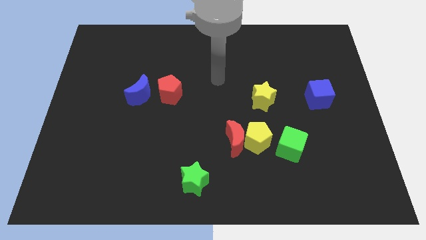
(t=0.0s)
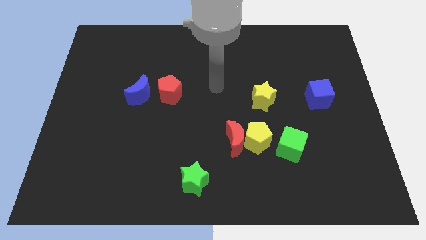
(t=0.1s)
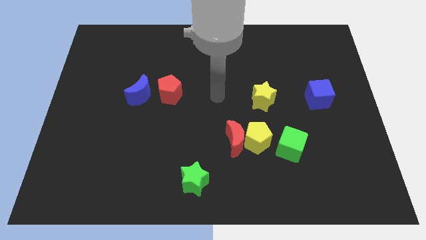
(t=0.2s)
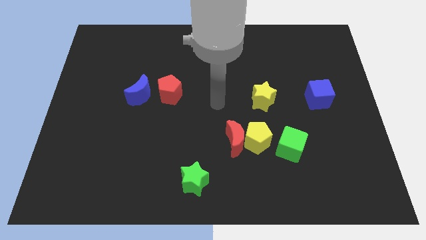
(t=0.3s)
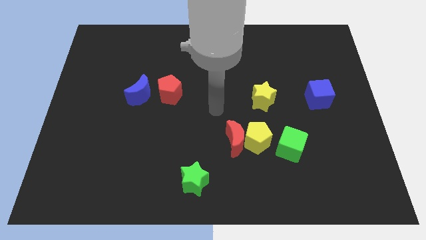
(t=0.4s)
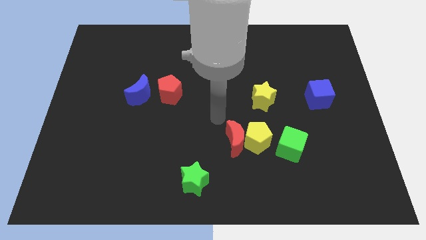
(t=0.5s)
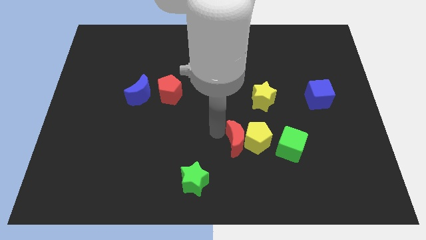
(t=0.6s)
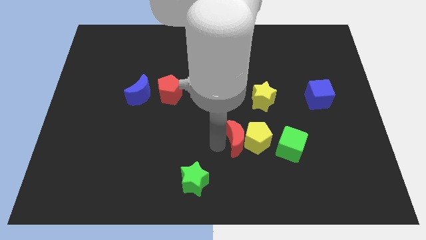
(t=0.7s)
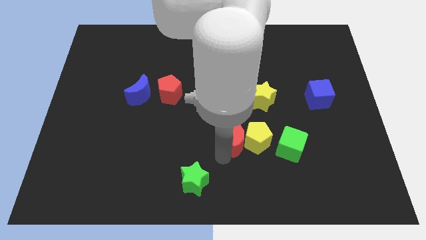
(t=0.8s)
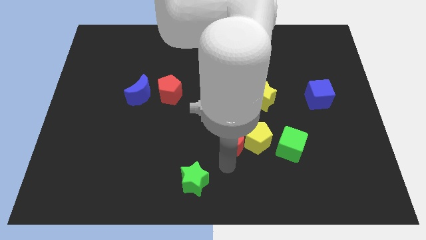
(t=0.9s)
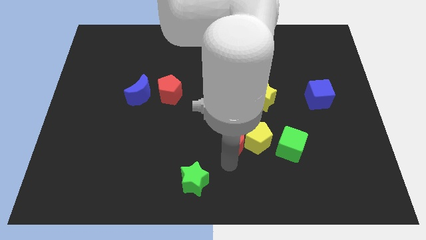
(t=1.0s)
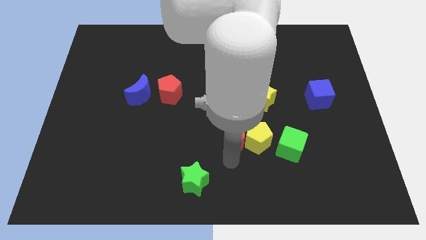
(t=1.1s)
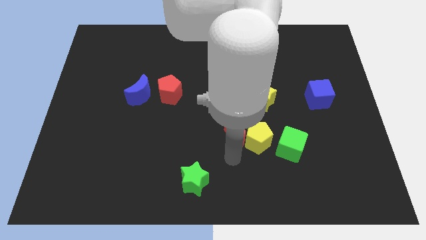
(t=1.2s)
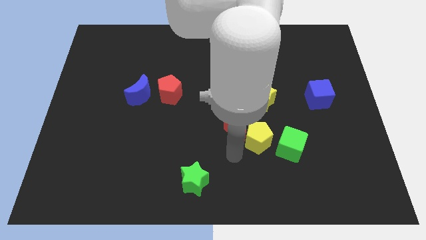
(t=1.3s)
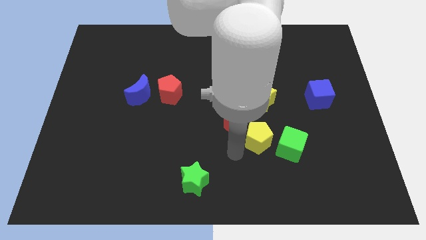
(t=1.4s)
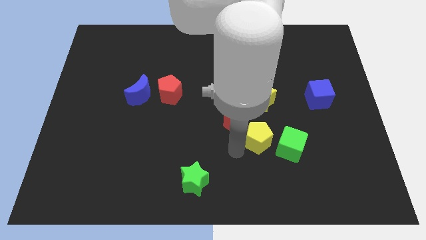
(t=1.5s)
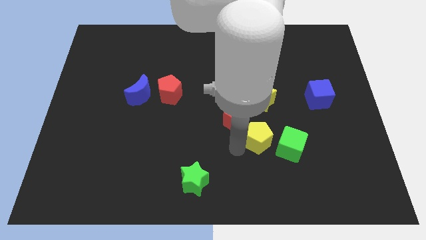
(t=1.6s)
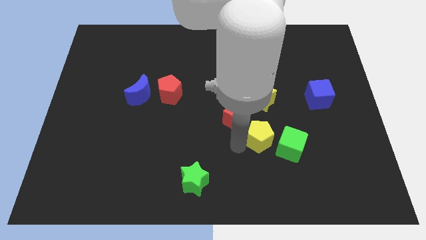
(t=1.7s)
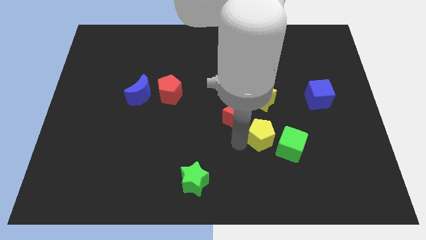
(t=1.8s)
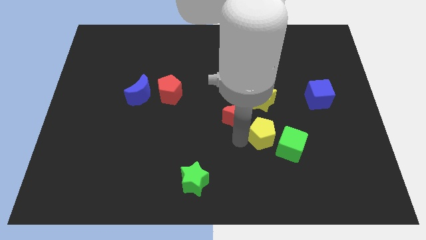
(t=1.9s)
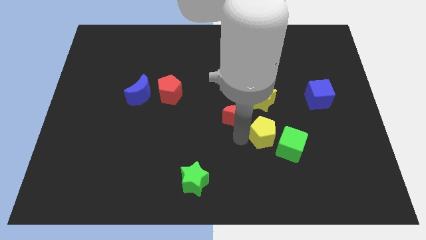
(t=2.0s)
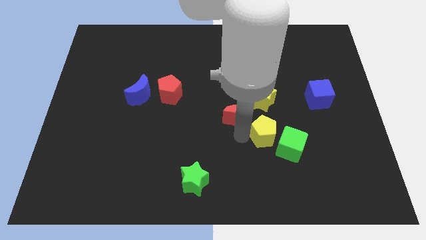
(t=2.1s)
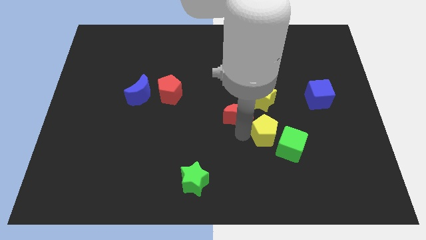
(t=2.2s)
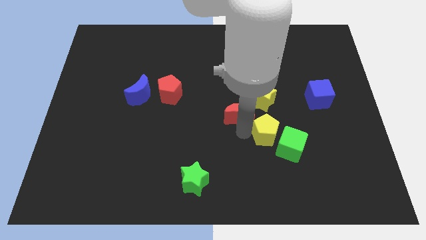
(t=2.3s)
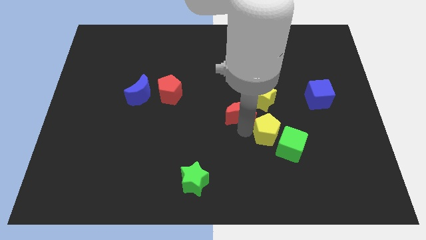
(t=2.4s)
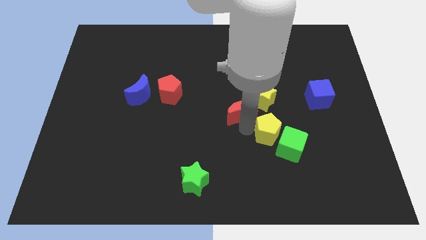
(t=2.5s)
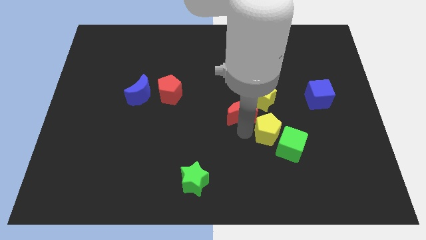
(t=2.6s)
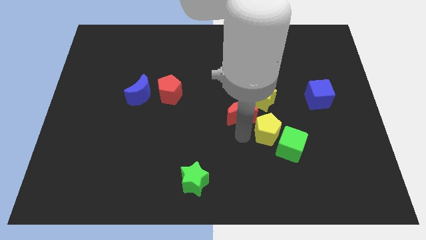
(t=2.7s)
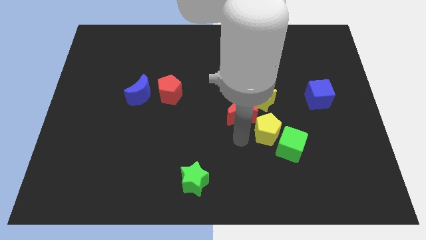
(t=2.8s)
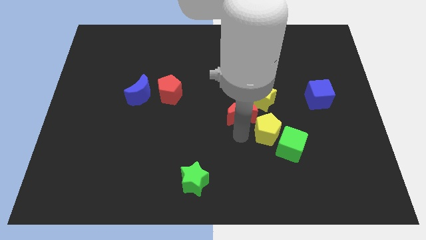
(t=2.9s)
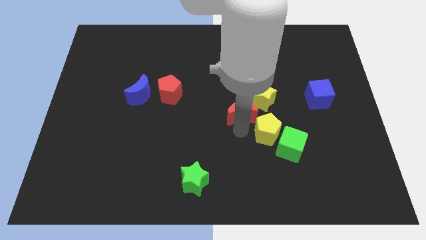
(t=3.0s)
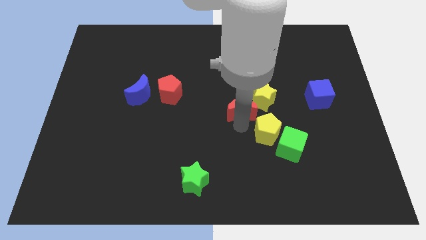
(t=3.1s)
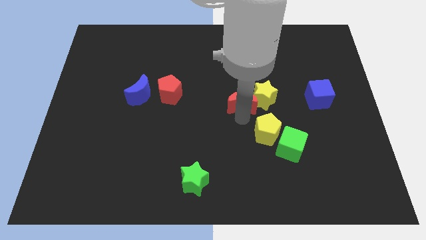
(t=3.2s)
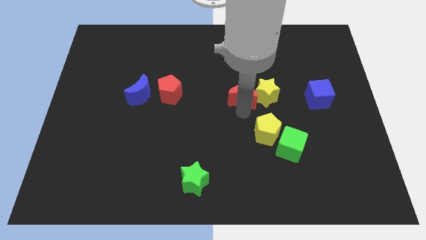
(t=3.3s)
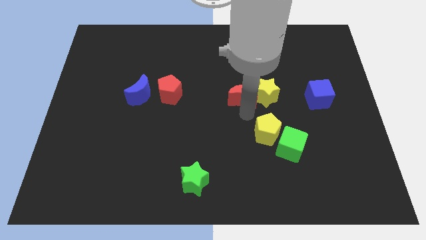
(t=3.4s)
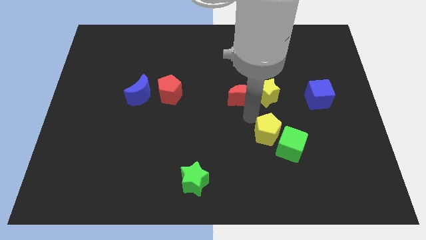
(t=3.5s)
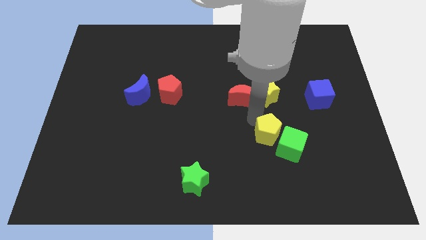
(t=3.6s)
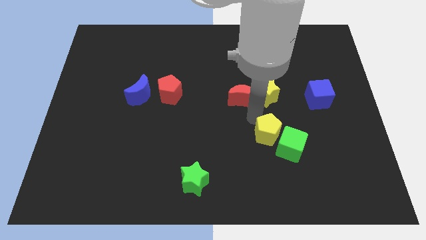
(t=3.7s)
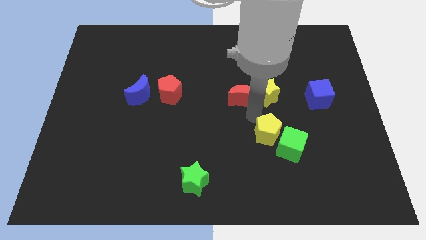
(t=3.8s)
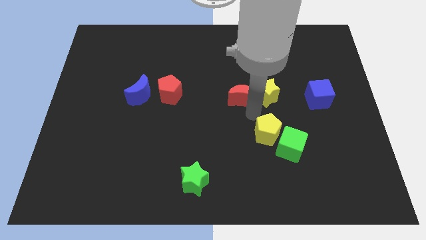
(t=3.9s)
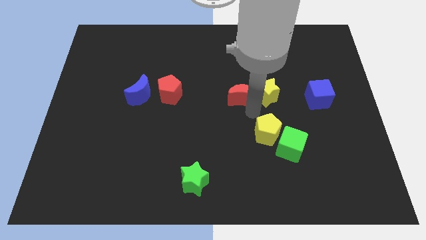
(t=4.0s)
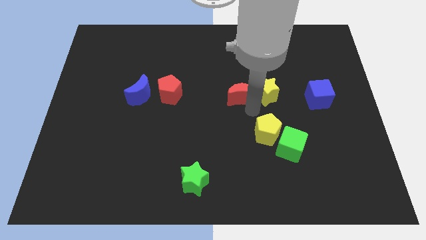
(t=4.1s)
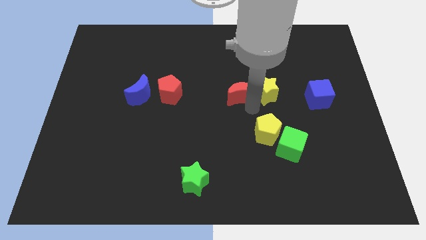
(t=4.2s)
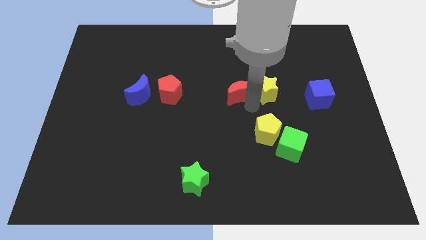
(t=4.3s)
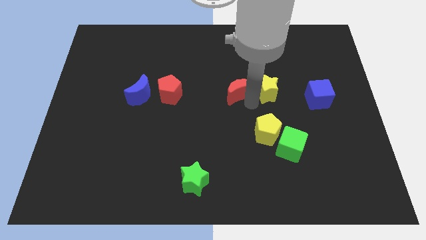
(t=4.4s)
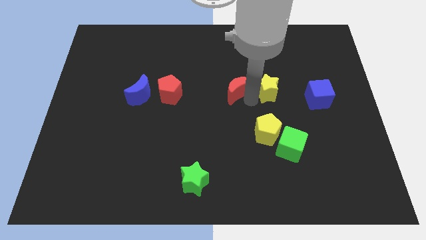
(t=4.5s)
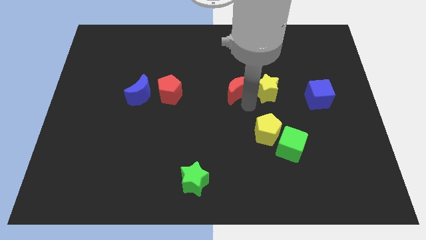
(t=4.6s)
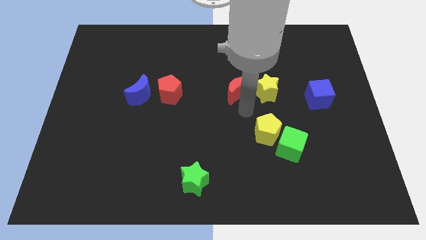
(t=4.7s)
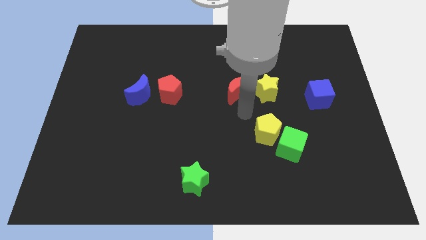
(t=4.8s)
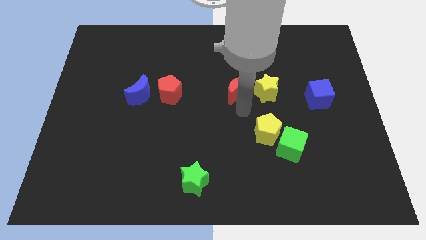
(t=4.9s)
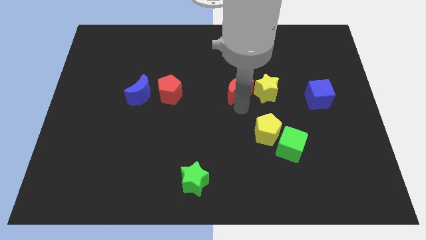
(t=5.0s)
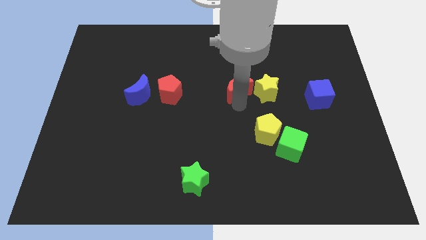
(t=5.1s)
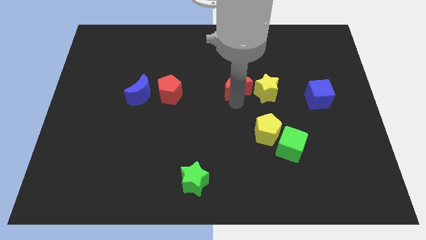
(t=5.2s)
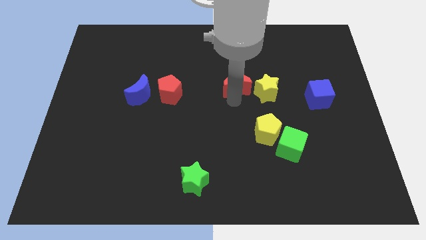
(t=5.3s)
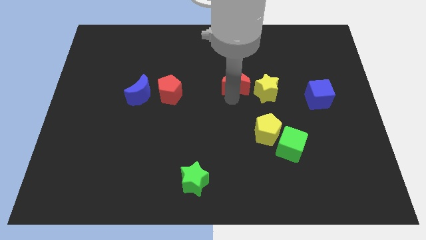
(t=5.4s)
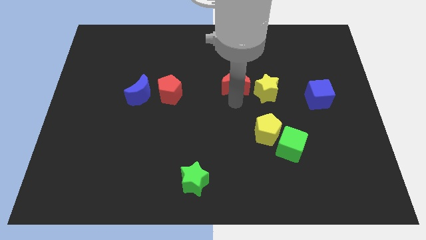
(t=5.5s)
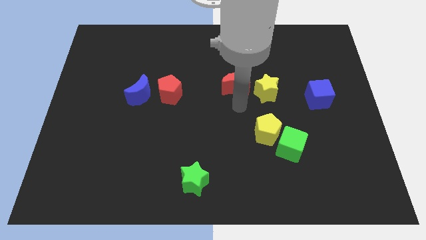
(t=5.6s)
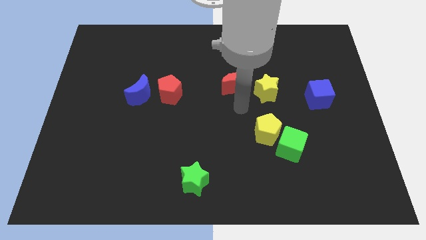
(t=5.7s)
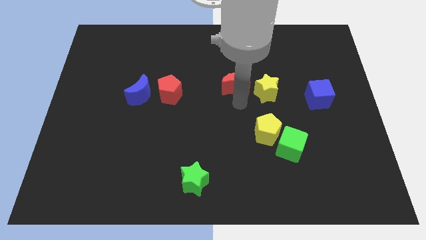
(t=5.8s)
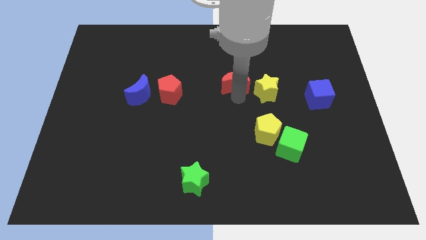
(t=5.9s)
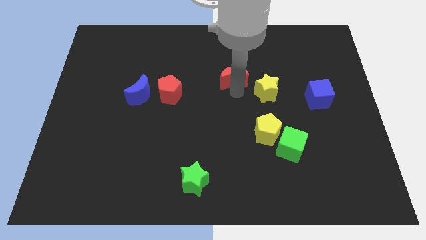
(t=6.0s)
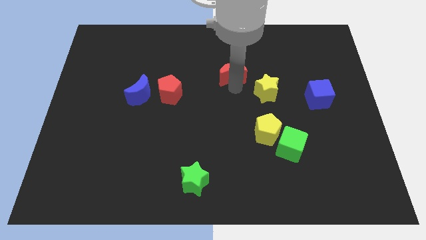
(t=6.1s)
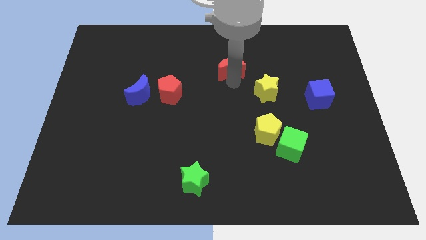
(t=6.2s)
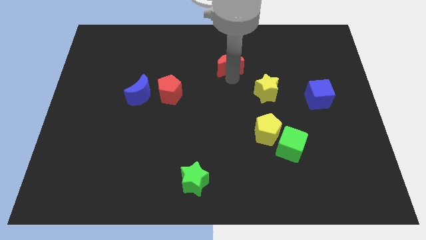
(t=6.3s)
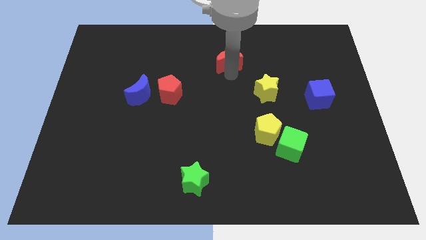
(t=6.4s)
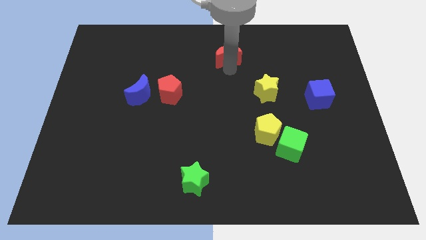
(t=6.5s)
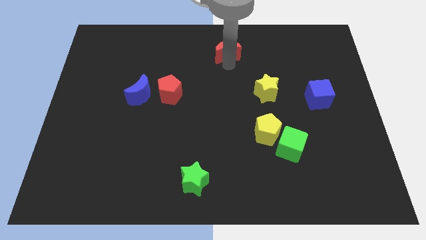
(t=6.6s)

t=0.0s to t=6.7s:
slide the red moon to the top side
